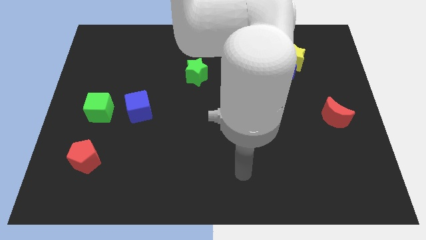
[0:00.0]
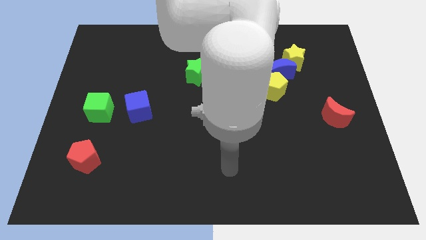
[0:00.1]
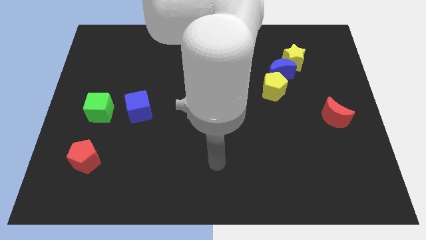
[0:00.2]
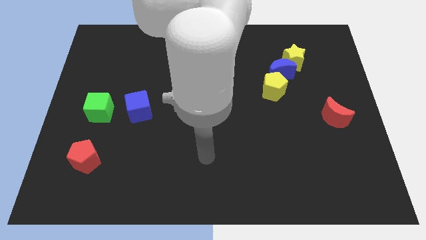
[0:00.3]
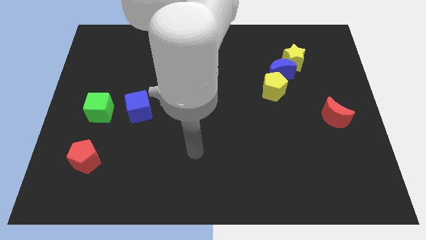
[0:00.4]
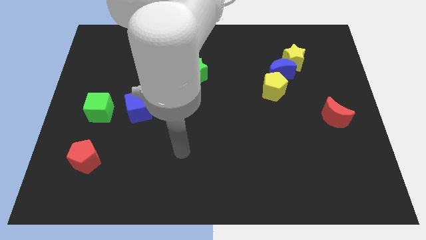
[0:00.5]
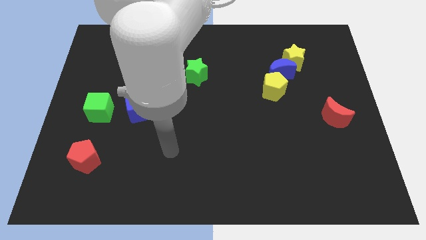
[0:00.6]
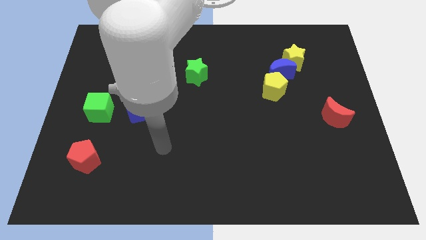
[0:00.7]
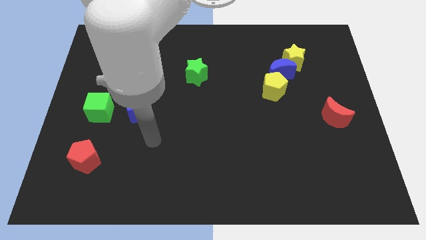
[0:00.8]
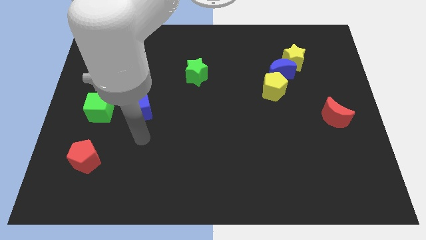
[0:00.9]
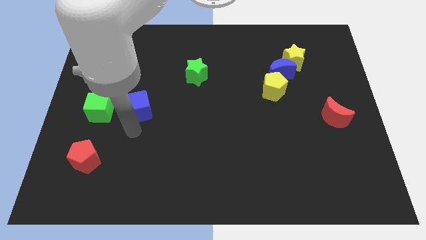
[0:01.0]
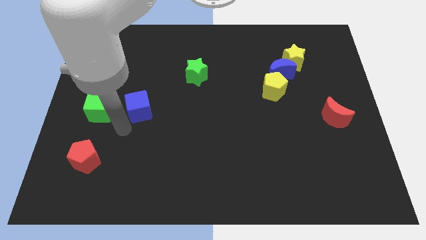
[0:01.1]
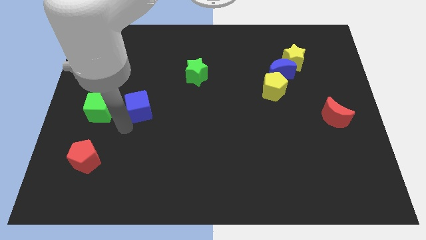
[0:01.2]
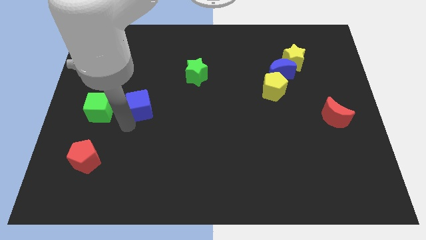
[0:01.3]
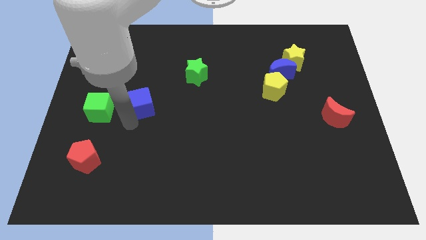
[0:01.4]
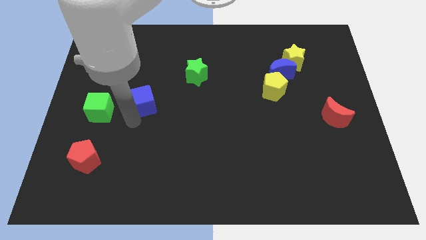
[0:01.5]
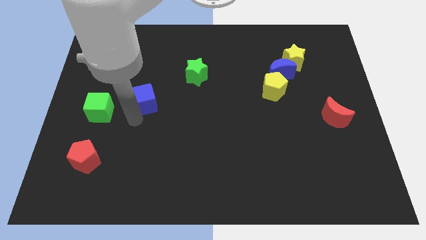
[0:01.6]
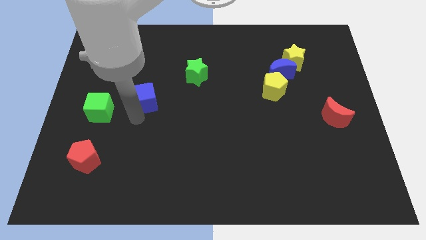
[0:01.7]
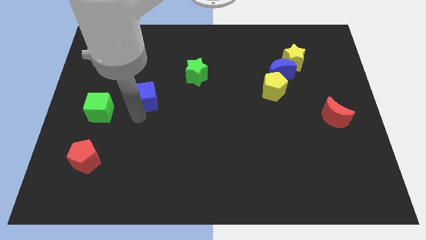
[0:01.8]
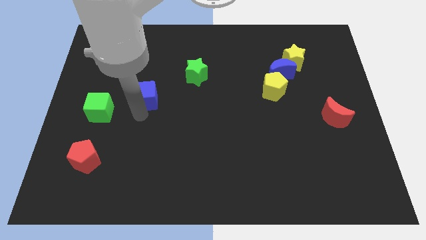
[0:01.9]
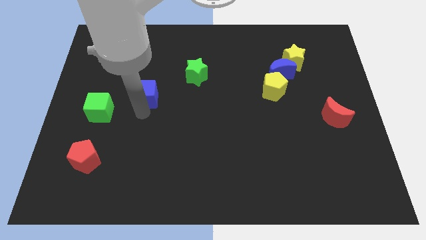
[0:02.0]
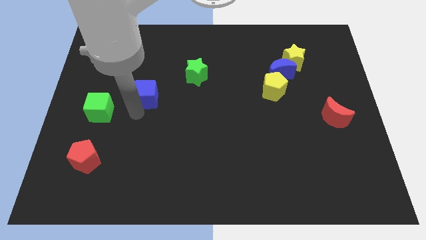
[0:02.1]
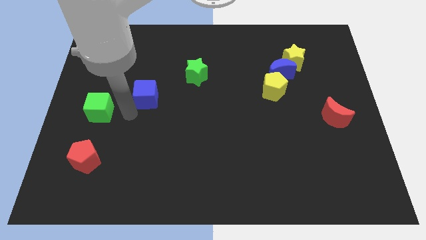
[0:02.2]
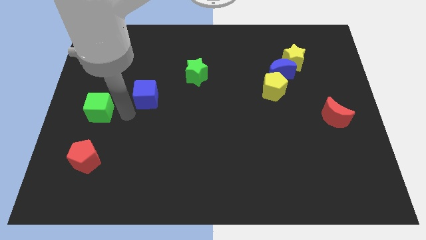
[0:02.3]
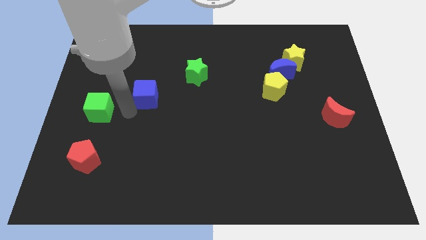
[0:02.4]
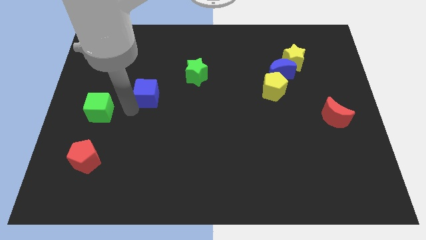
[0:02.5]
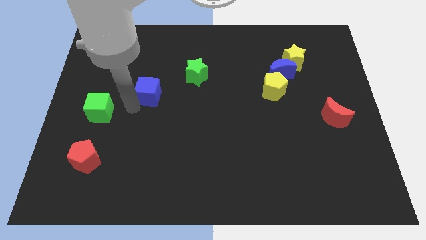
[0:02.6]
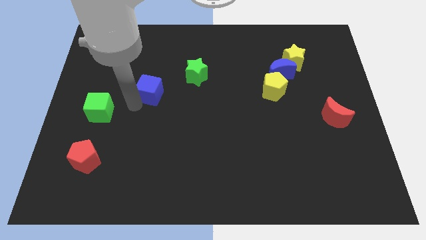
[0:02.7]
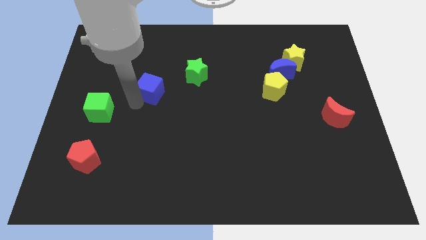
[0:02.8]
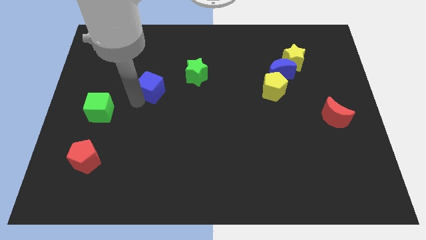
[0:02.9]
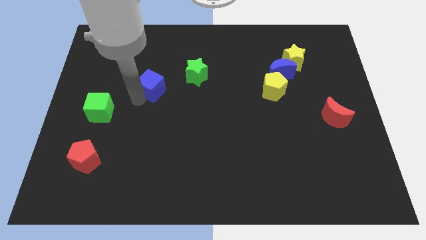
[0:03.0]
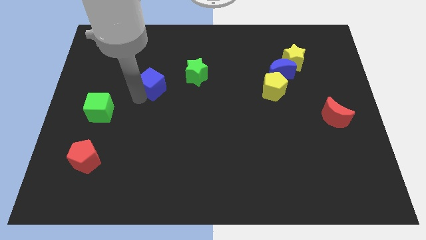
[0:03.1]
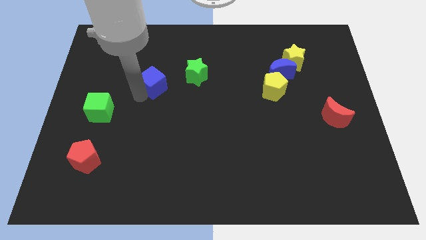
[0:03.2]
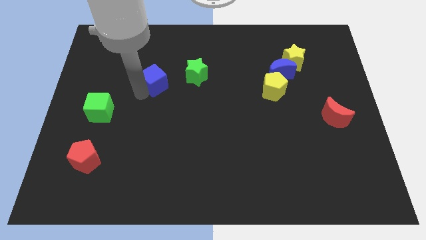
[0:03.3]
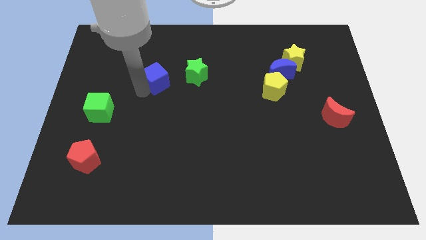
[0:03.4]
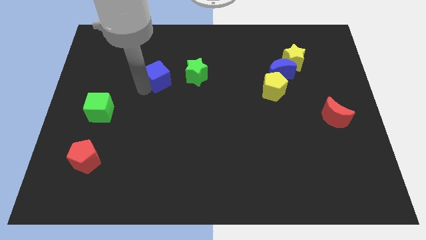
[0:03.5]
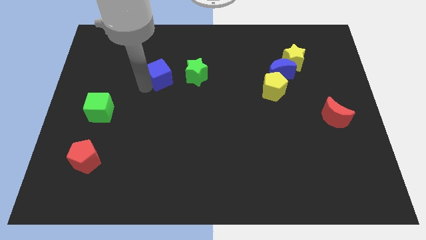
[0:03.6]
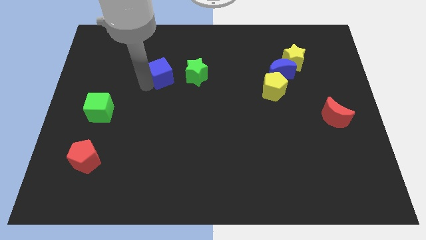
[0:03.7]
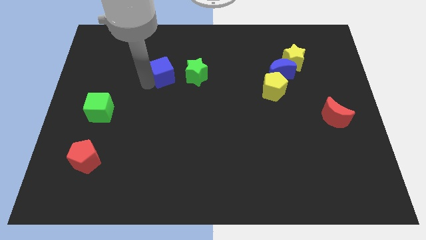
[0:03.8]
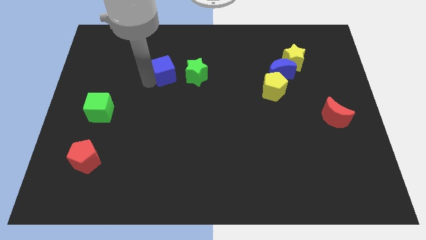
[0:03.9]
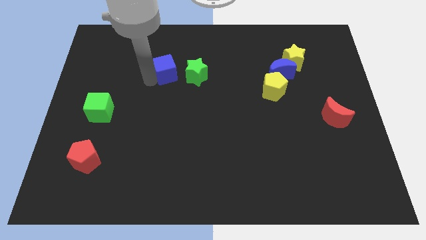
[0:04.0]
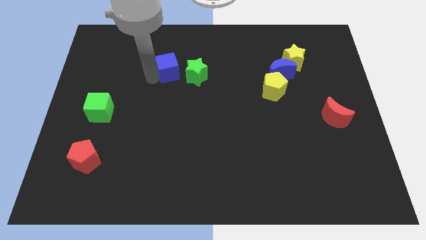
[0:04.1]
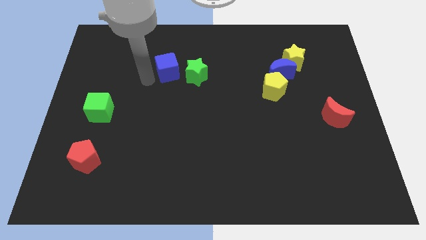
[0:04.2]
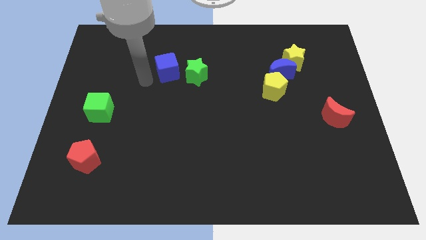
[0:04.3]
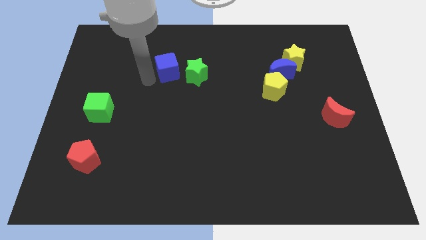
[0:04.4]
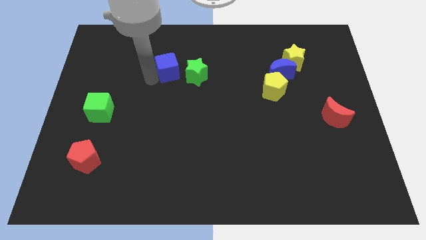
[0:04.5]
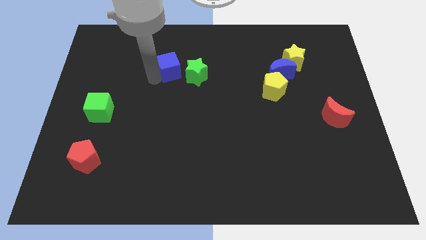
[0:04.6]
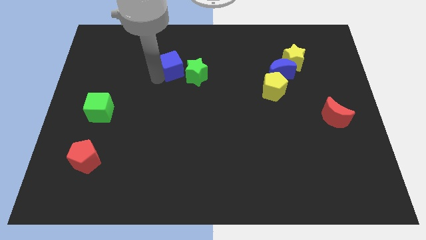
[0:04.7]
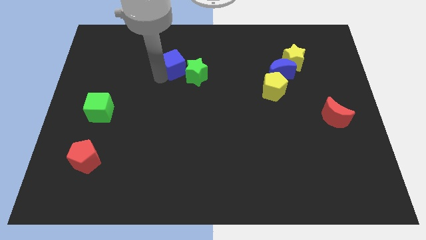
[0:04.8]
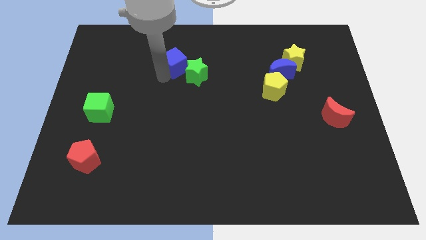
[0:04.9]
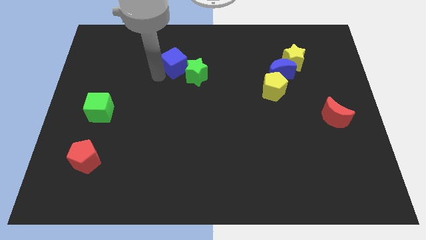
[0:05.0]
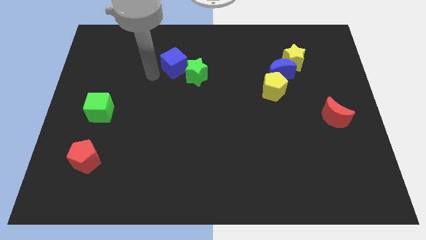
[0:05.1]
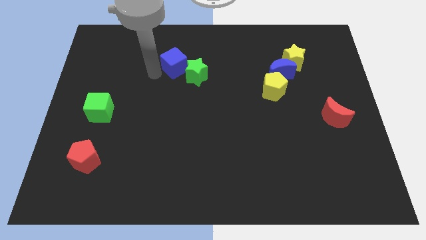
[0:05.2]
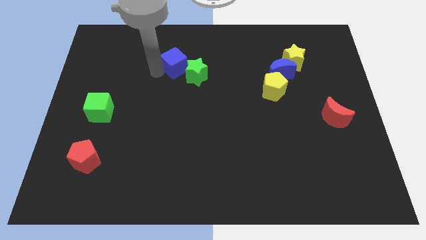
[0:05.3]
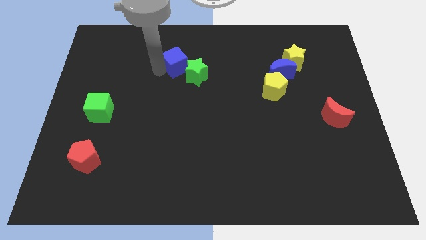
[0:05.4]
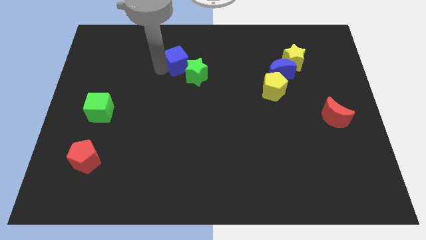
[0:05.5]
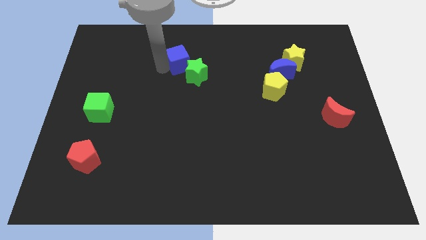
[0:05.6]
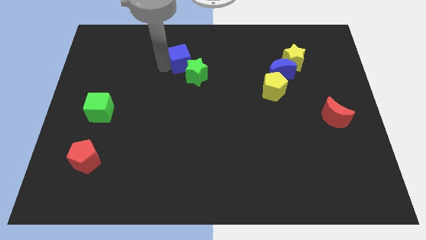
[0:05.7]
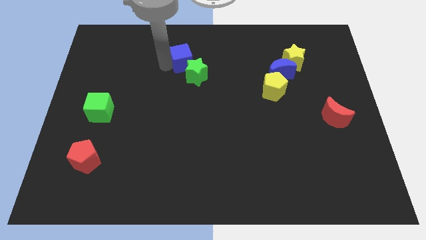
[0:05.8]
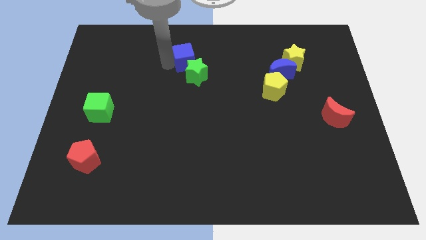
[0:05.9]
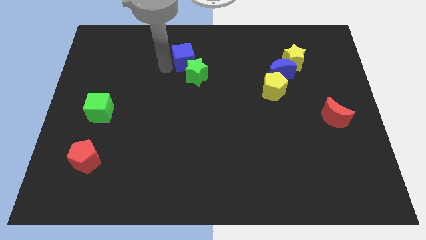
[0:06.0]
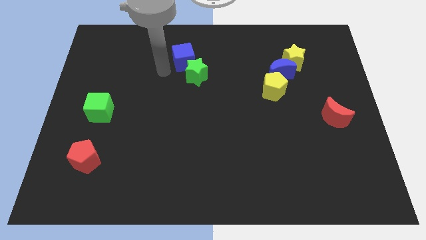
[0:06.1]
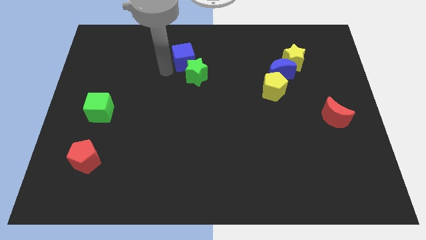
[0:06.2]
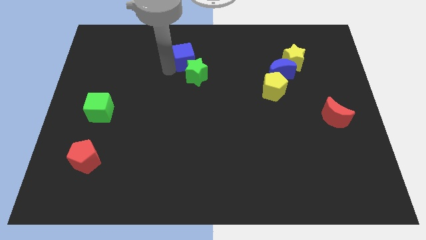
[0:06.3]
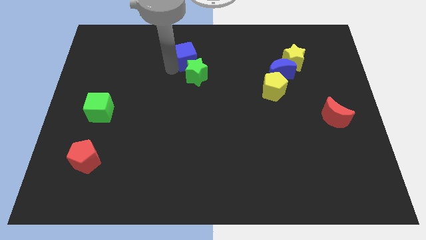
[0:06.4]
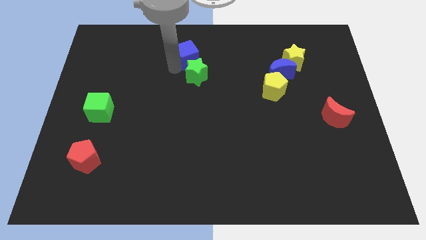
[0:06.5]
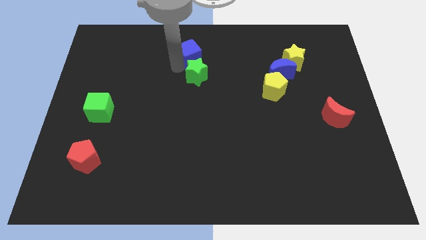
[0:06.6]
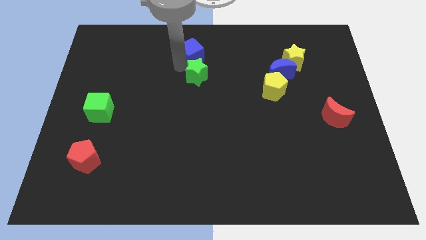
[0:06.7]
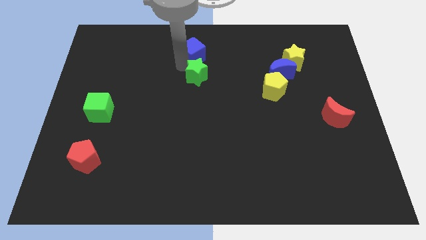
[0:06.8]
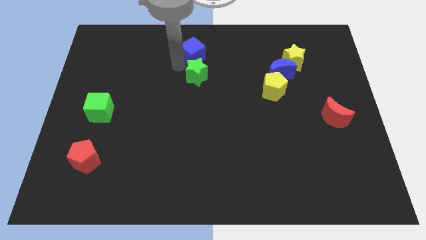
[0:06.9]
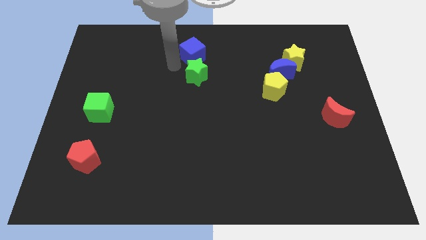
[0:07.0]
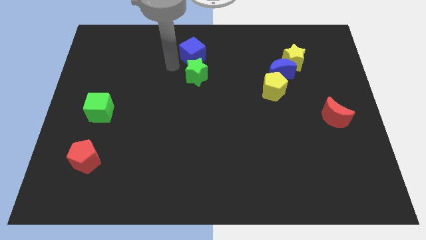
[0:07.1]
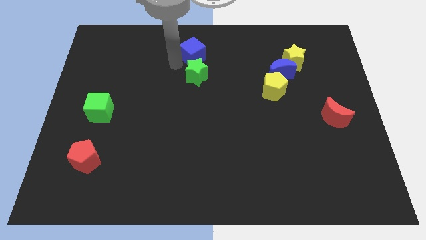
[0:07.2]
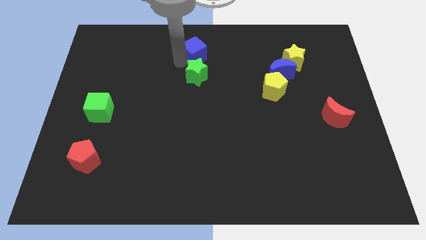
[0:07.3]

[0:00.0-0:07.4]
move the blue cube to the top side
